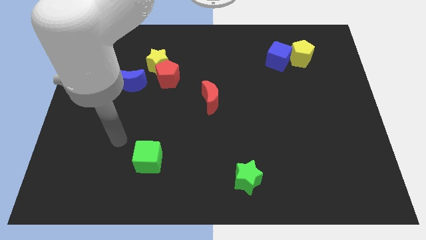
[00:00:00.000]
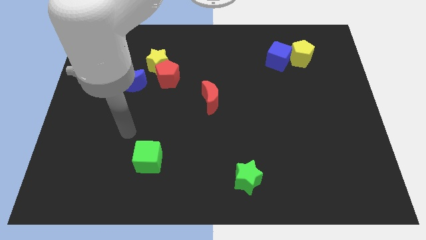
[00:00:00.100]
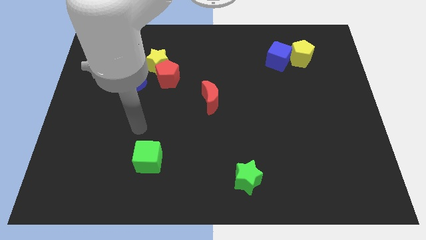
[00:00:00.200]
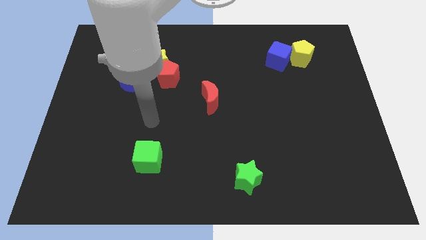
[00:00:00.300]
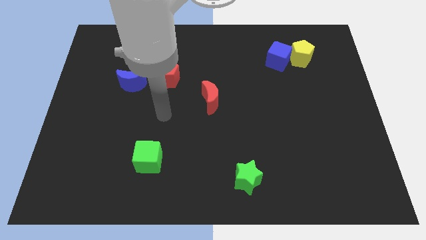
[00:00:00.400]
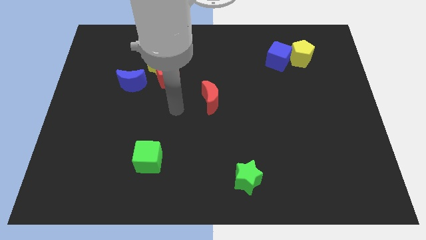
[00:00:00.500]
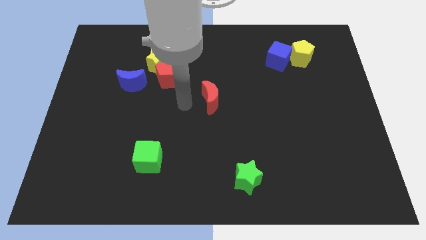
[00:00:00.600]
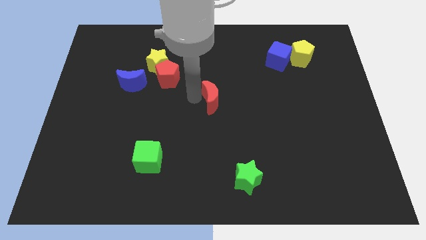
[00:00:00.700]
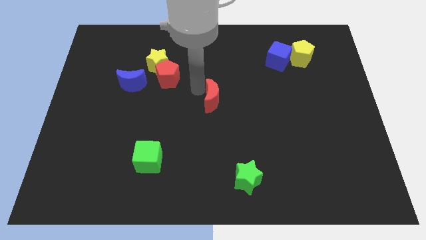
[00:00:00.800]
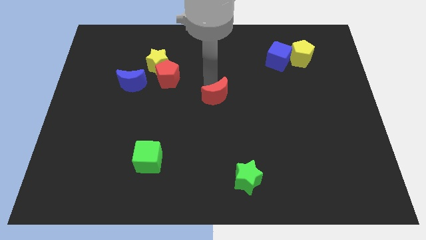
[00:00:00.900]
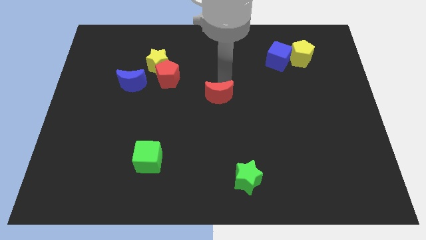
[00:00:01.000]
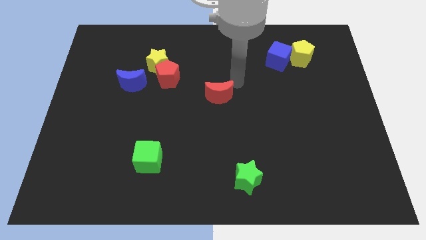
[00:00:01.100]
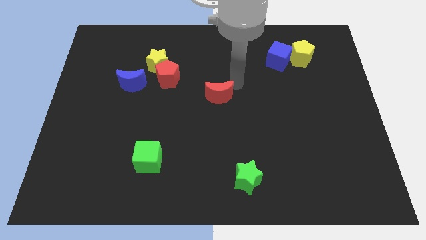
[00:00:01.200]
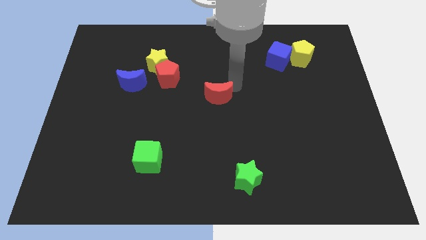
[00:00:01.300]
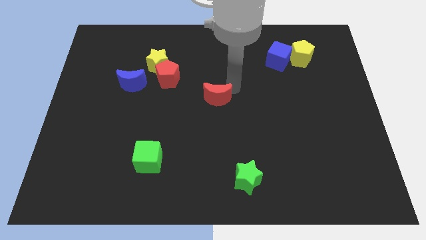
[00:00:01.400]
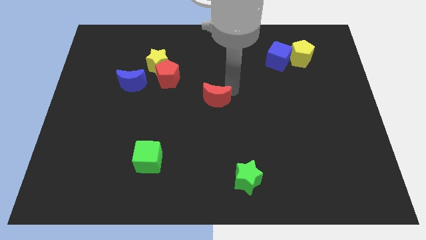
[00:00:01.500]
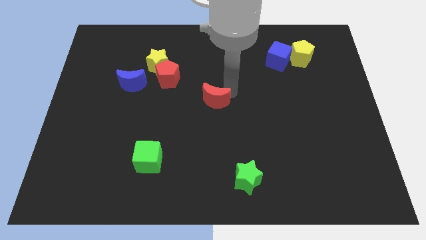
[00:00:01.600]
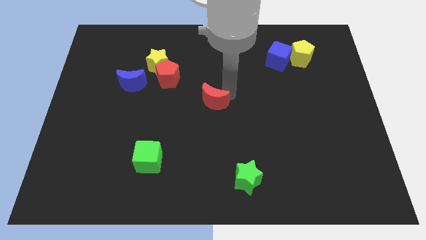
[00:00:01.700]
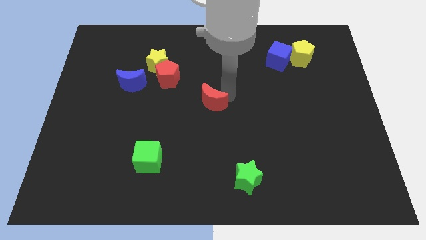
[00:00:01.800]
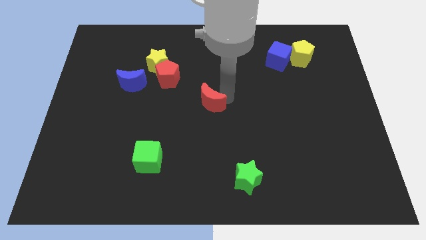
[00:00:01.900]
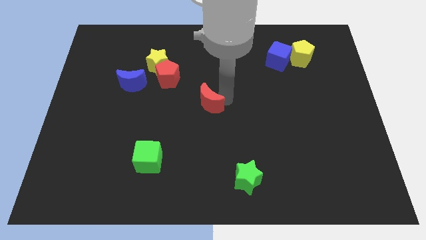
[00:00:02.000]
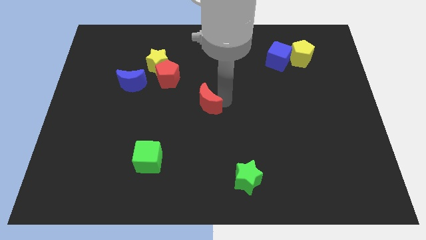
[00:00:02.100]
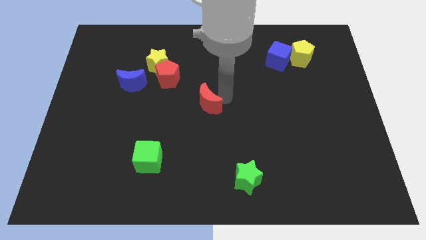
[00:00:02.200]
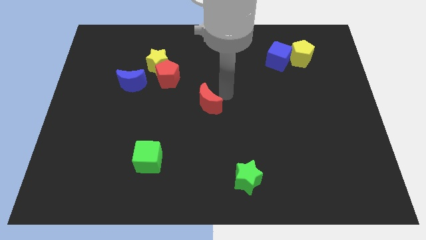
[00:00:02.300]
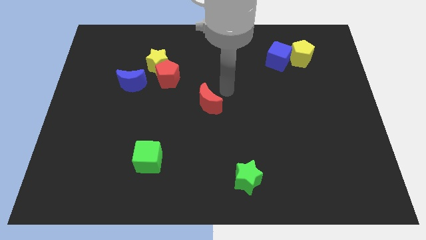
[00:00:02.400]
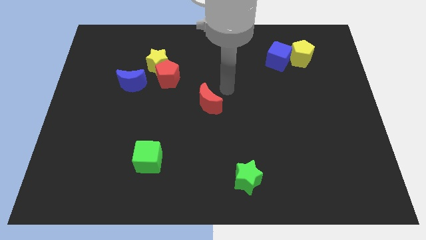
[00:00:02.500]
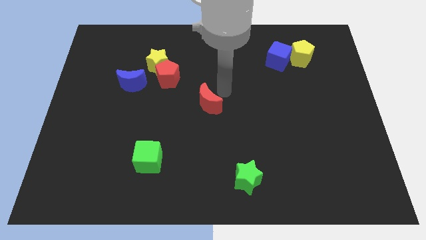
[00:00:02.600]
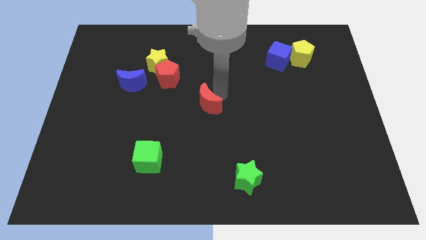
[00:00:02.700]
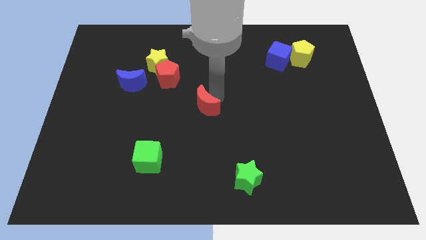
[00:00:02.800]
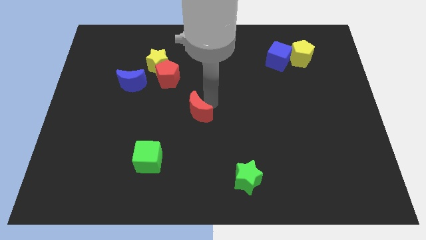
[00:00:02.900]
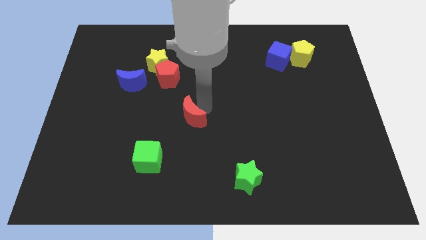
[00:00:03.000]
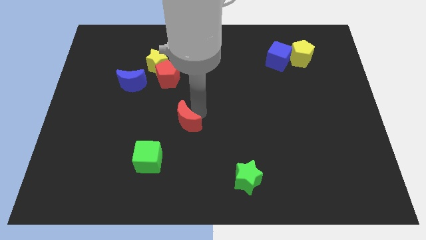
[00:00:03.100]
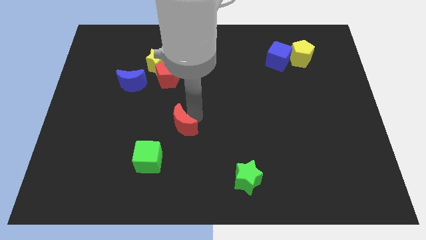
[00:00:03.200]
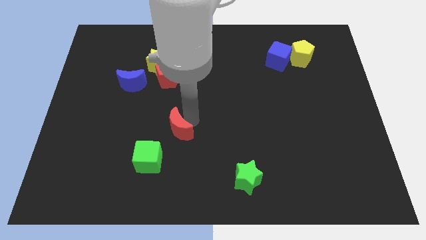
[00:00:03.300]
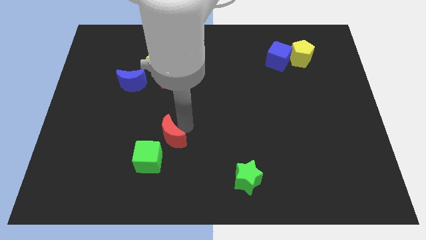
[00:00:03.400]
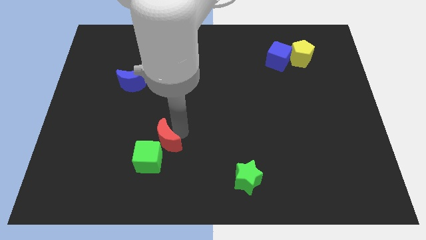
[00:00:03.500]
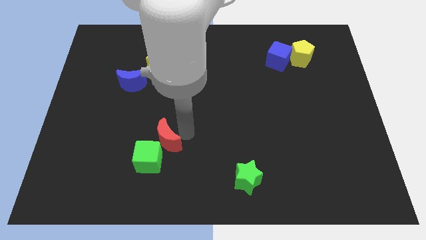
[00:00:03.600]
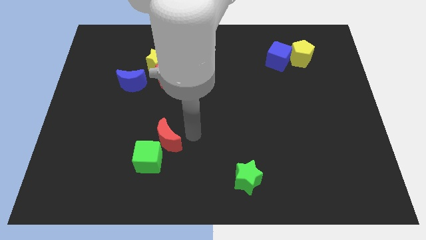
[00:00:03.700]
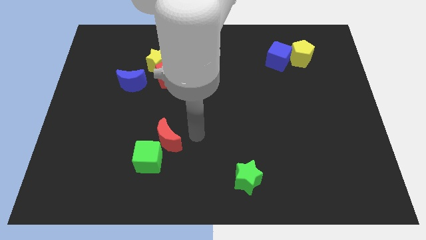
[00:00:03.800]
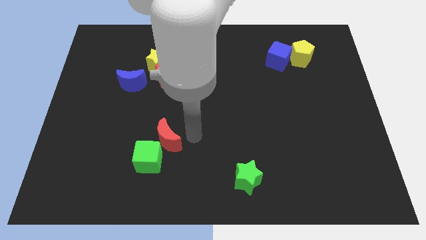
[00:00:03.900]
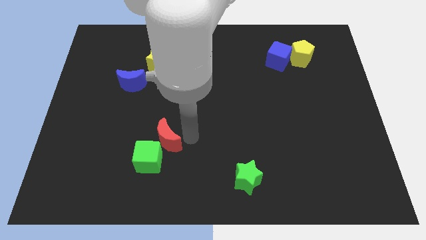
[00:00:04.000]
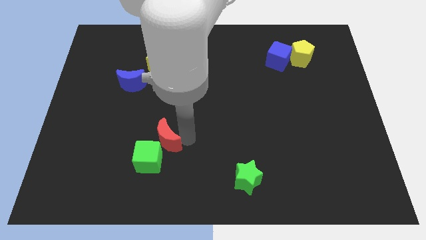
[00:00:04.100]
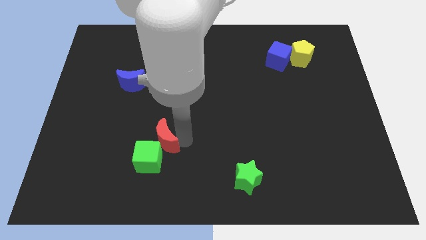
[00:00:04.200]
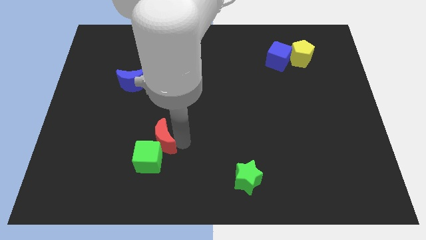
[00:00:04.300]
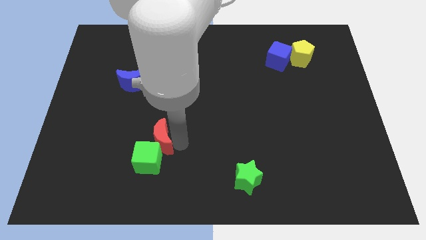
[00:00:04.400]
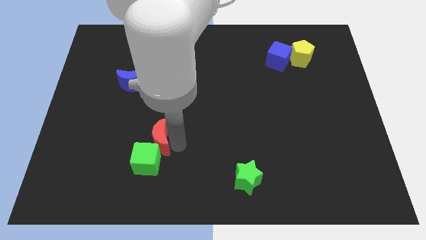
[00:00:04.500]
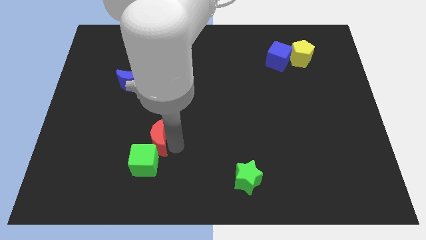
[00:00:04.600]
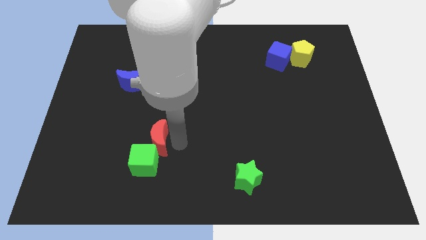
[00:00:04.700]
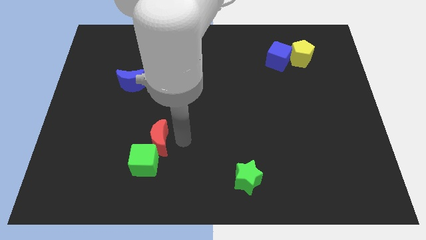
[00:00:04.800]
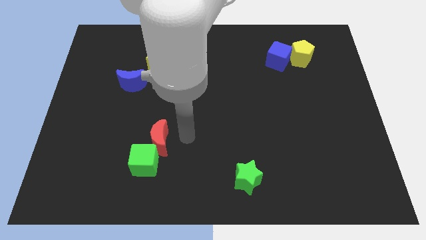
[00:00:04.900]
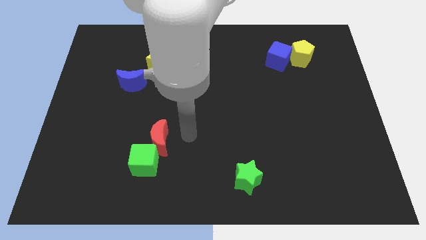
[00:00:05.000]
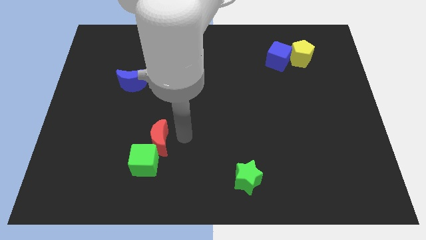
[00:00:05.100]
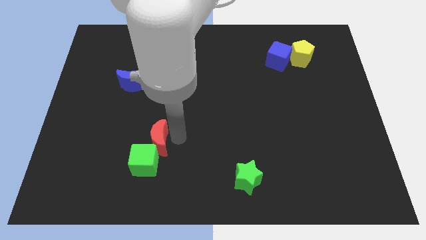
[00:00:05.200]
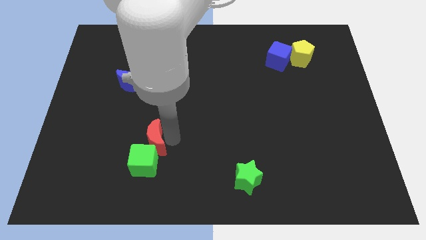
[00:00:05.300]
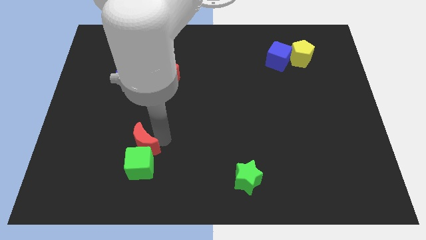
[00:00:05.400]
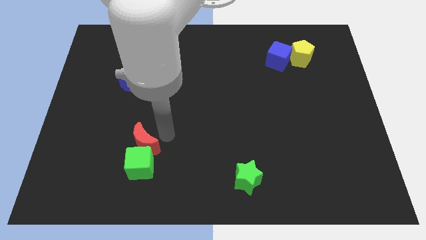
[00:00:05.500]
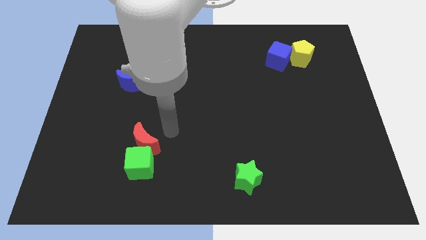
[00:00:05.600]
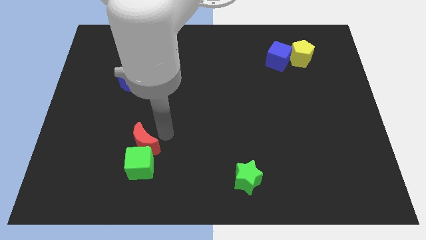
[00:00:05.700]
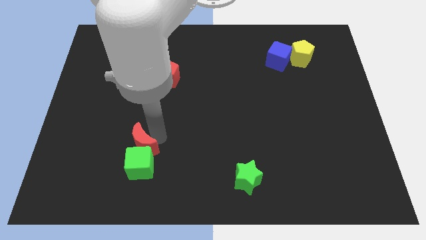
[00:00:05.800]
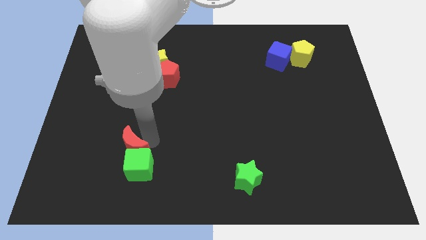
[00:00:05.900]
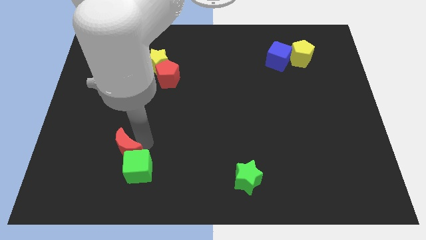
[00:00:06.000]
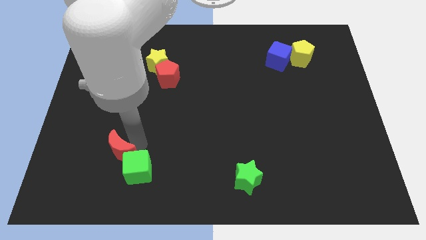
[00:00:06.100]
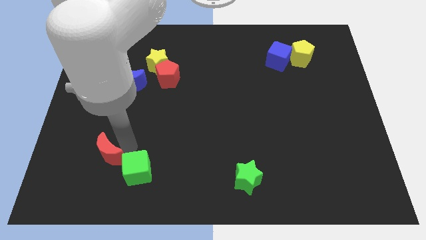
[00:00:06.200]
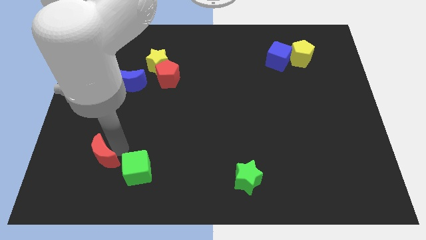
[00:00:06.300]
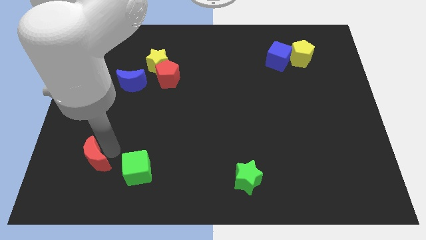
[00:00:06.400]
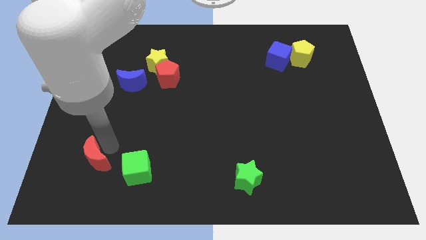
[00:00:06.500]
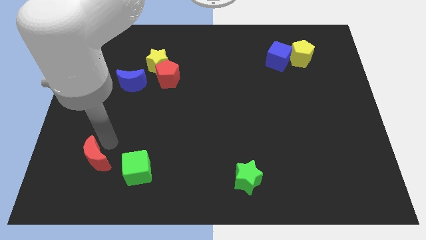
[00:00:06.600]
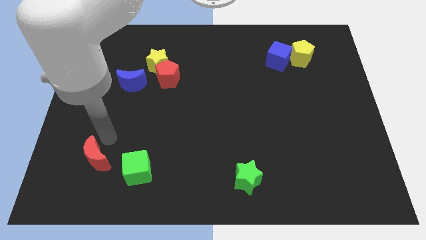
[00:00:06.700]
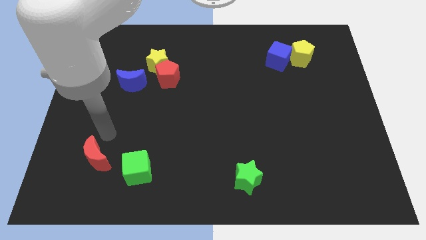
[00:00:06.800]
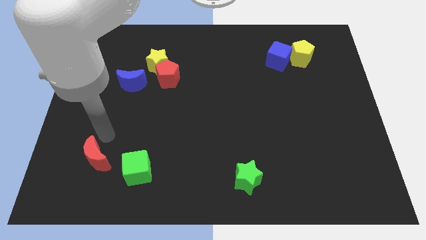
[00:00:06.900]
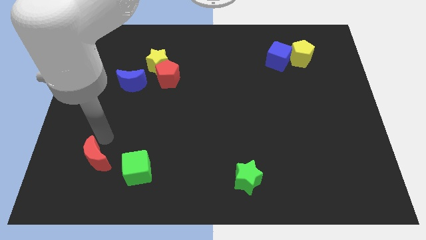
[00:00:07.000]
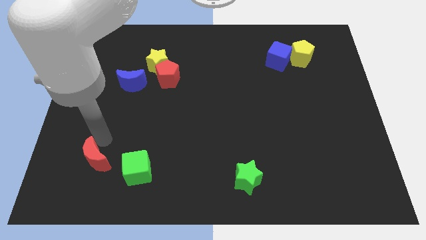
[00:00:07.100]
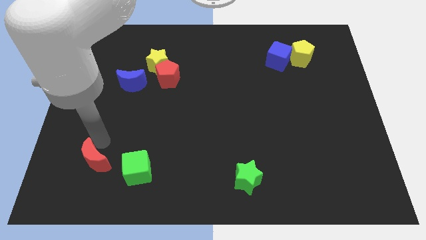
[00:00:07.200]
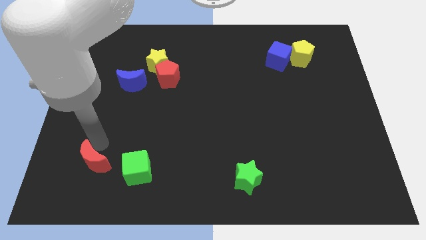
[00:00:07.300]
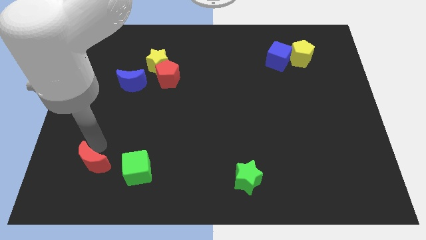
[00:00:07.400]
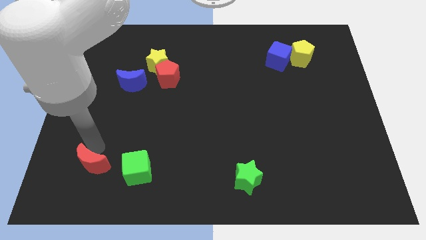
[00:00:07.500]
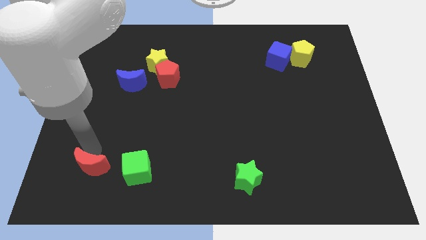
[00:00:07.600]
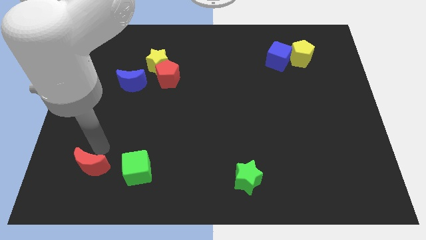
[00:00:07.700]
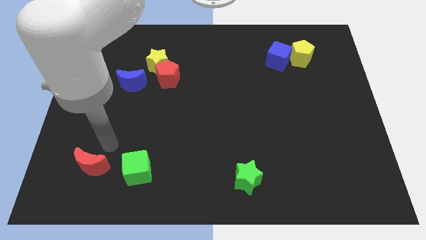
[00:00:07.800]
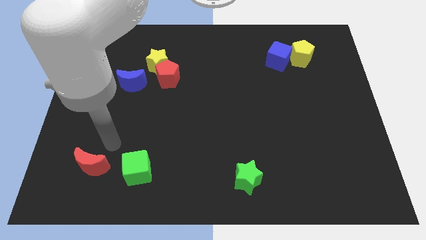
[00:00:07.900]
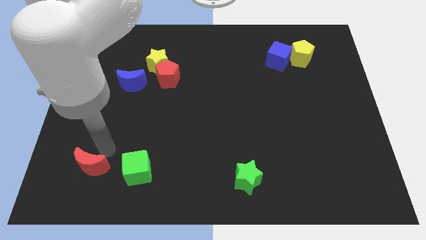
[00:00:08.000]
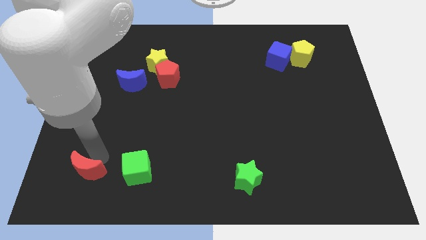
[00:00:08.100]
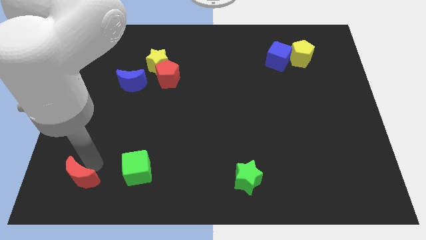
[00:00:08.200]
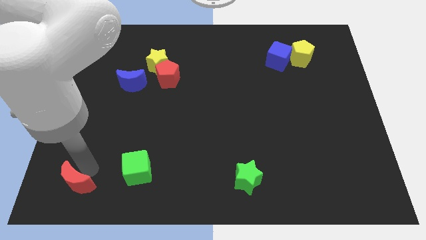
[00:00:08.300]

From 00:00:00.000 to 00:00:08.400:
slide the red moon to the lower left corner
